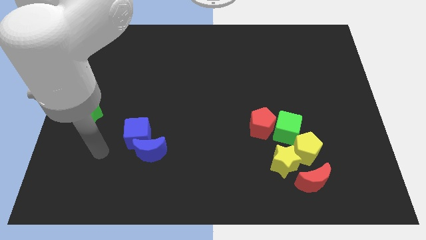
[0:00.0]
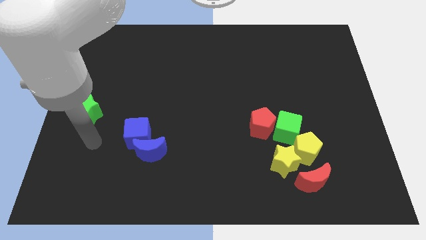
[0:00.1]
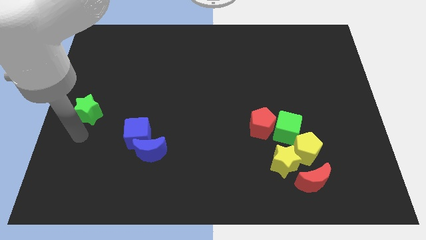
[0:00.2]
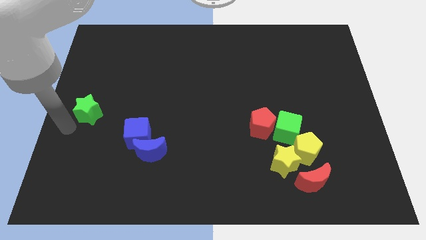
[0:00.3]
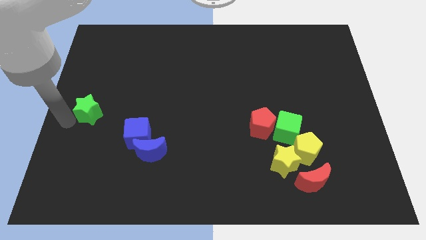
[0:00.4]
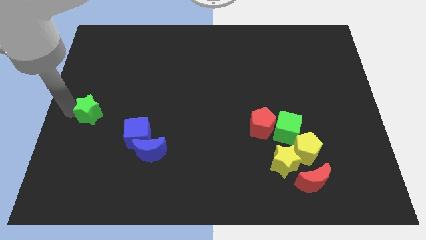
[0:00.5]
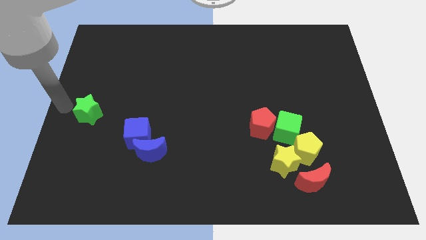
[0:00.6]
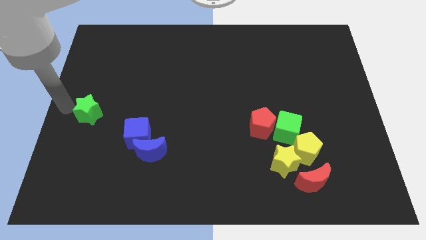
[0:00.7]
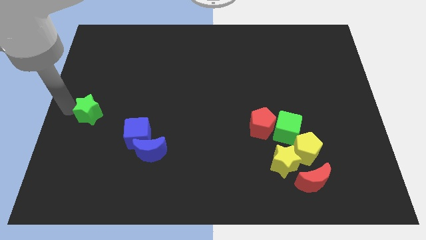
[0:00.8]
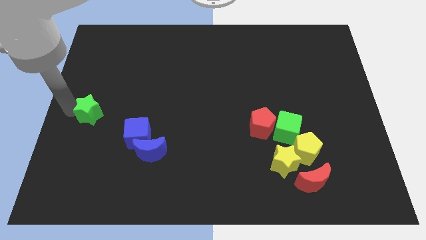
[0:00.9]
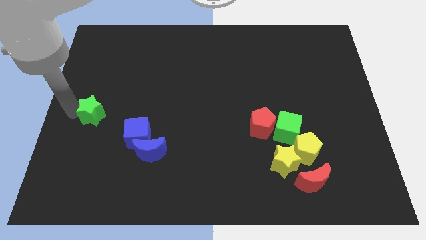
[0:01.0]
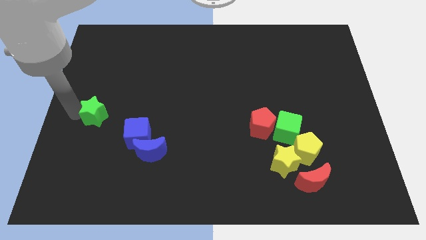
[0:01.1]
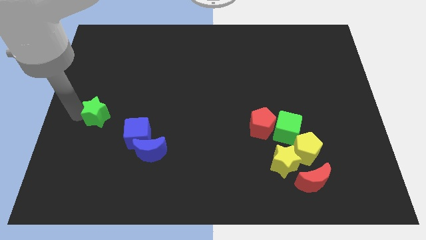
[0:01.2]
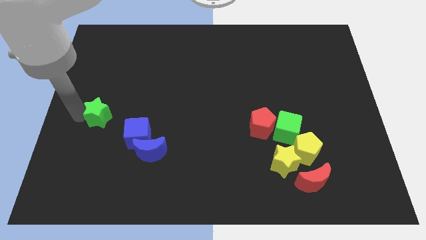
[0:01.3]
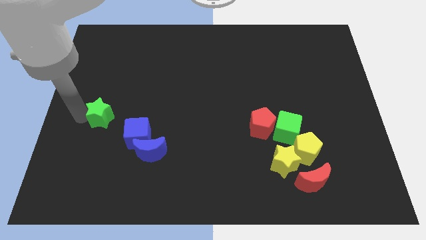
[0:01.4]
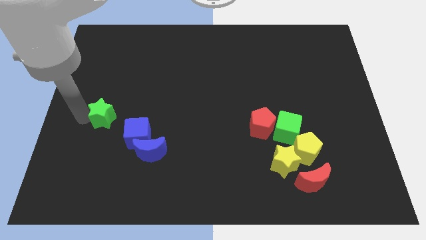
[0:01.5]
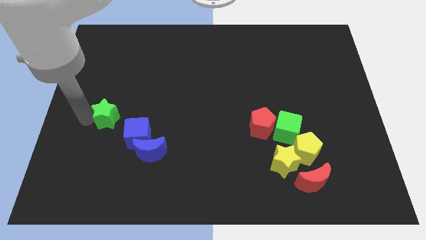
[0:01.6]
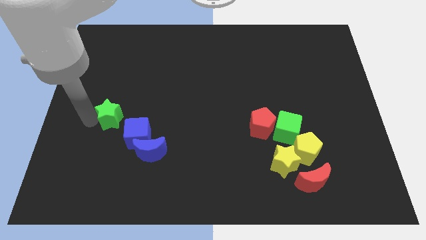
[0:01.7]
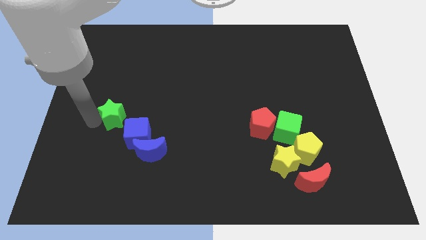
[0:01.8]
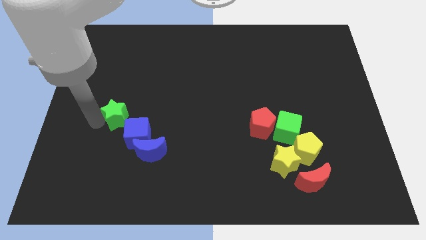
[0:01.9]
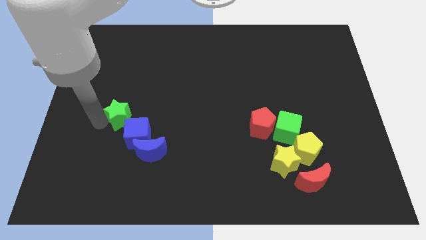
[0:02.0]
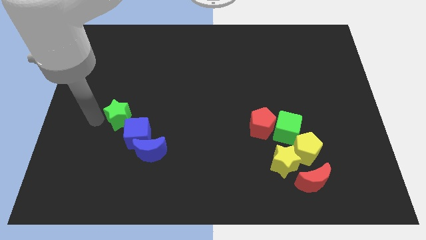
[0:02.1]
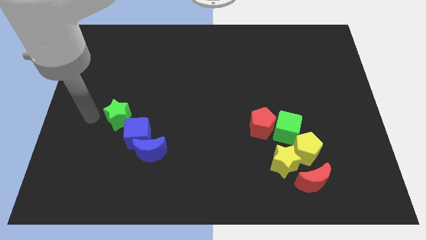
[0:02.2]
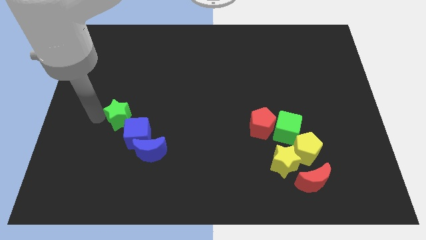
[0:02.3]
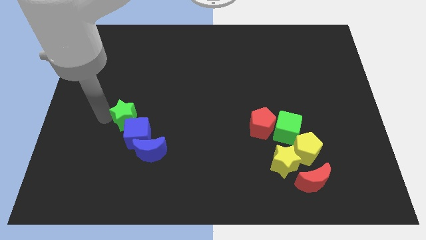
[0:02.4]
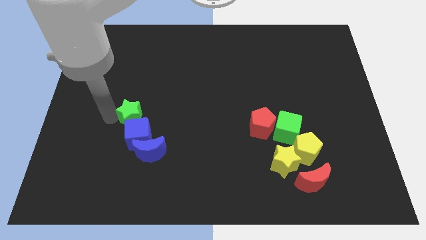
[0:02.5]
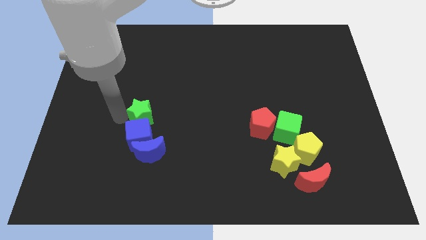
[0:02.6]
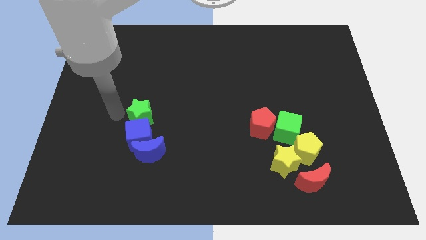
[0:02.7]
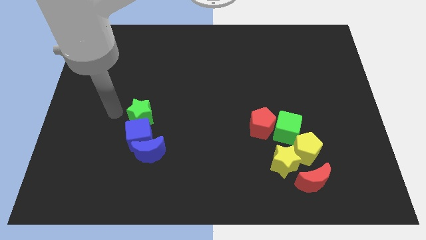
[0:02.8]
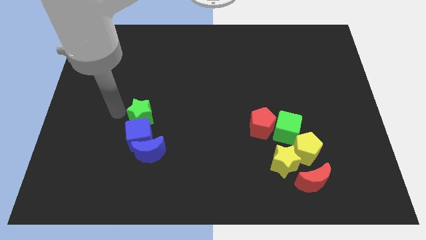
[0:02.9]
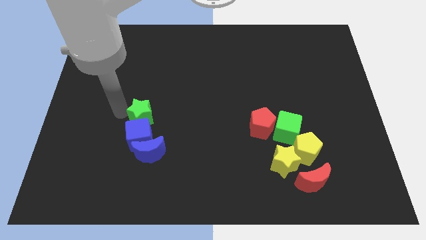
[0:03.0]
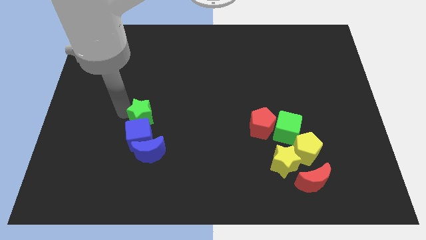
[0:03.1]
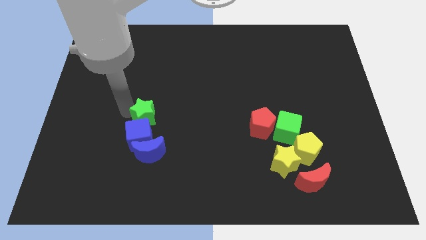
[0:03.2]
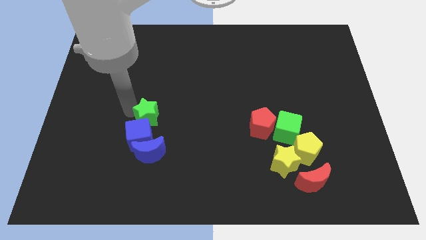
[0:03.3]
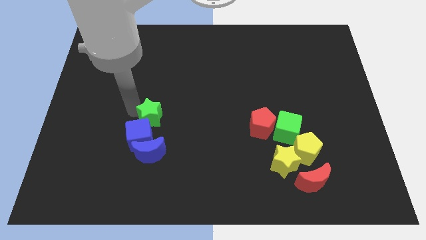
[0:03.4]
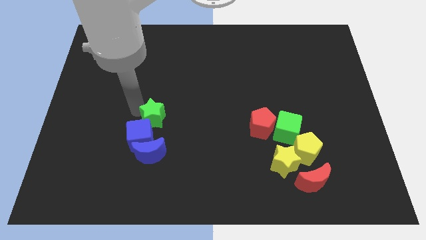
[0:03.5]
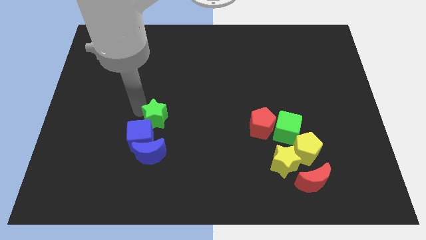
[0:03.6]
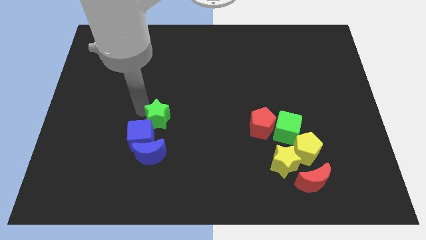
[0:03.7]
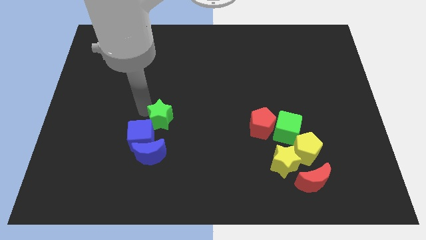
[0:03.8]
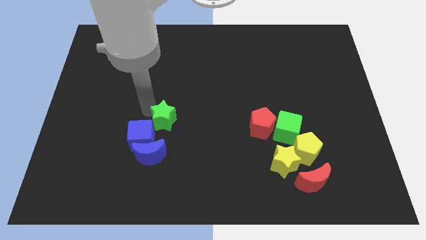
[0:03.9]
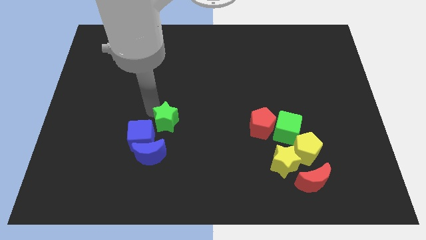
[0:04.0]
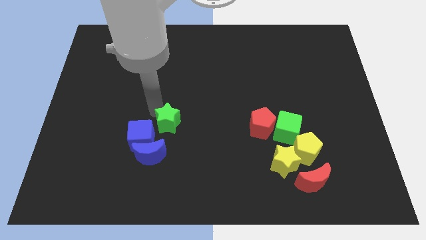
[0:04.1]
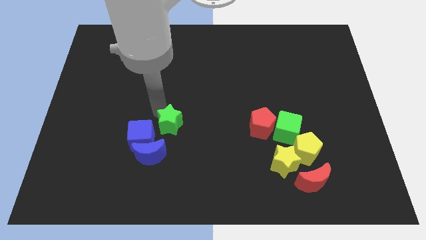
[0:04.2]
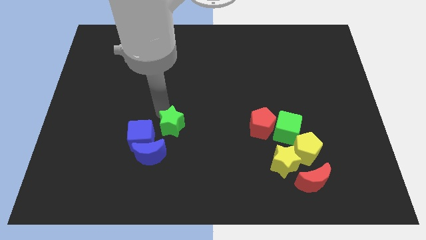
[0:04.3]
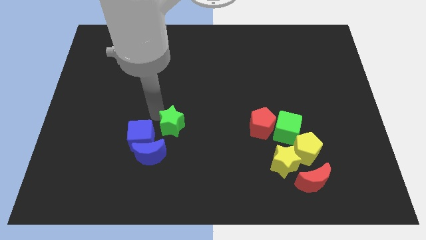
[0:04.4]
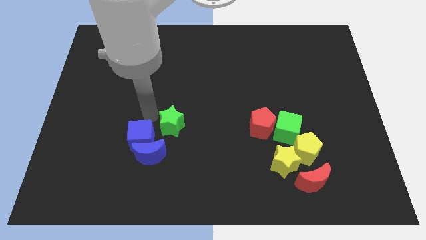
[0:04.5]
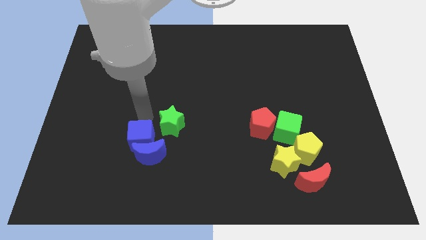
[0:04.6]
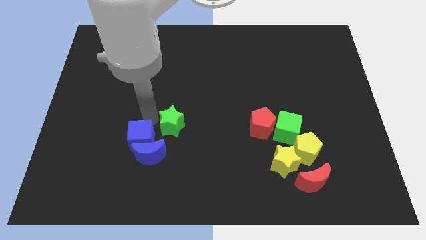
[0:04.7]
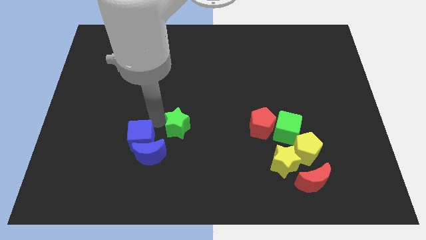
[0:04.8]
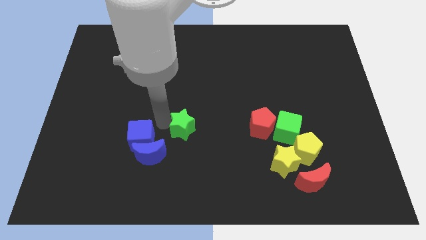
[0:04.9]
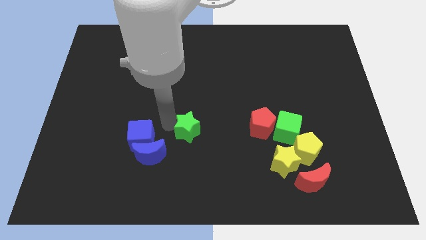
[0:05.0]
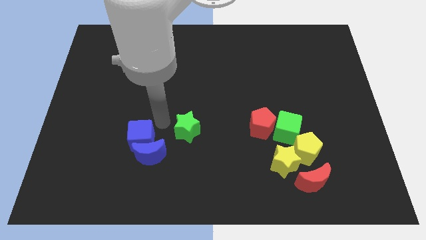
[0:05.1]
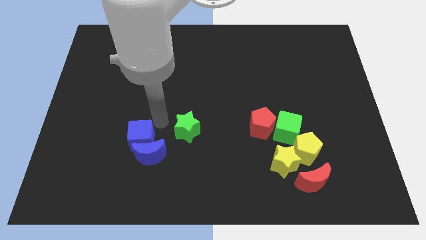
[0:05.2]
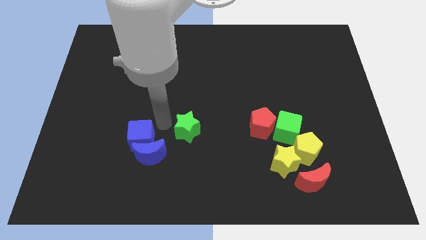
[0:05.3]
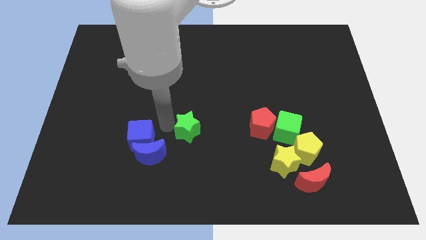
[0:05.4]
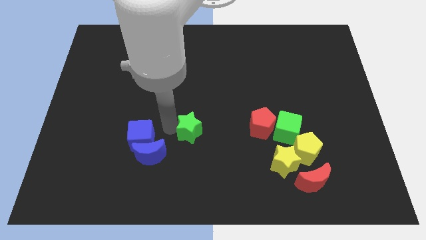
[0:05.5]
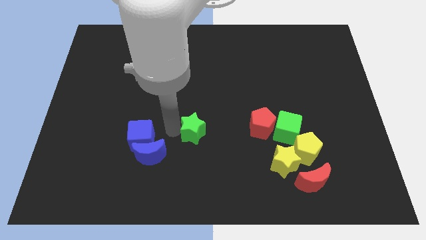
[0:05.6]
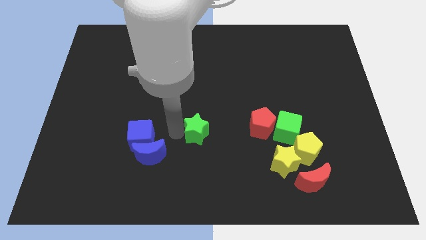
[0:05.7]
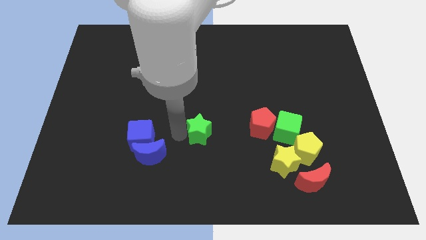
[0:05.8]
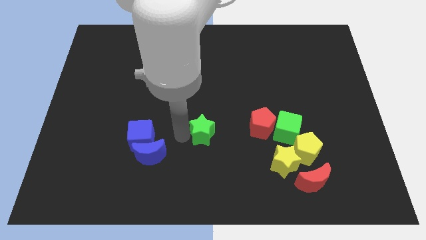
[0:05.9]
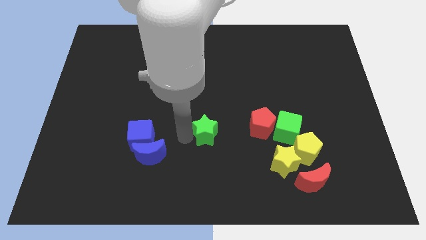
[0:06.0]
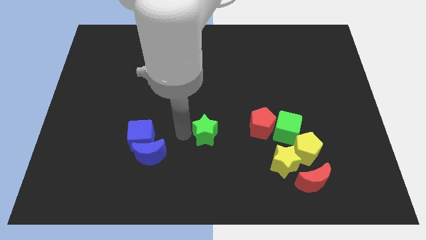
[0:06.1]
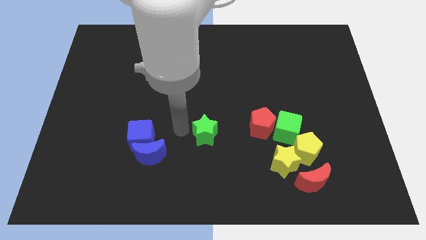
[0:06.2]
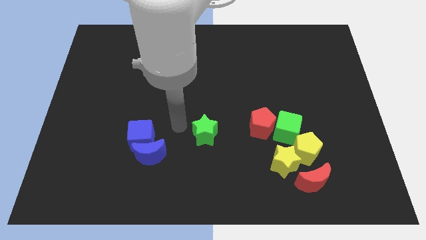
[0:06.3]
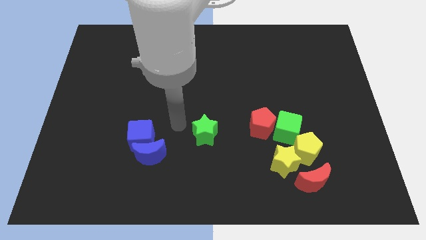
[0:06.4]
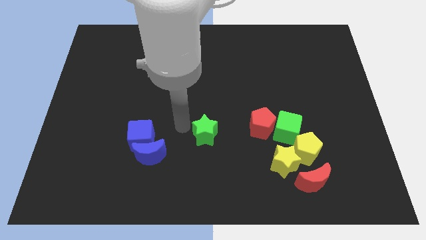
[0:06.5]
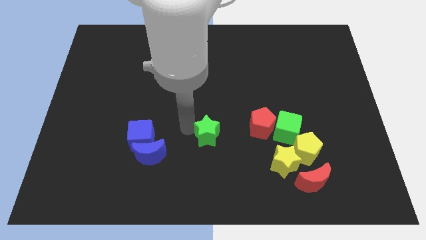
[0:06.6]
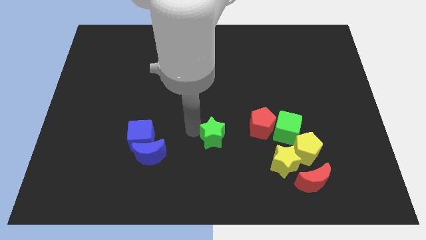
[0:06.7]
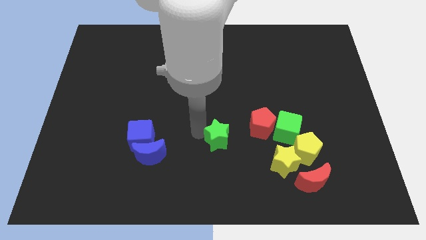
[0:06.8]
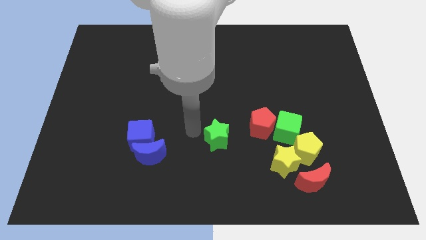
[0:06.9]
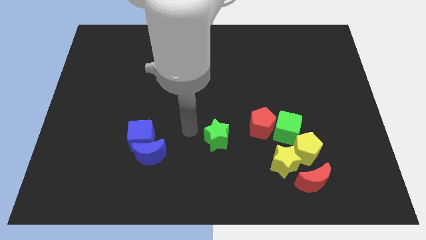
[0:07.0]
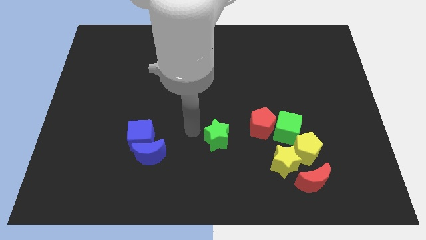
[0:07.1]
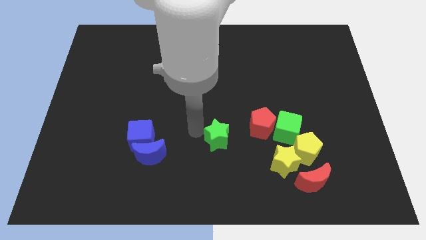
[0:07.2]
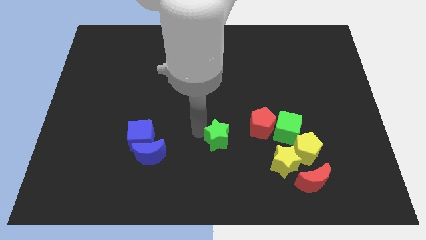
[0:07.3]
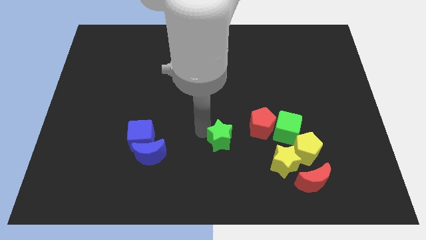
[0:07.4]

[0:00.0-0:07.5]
push the green star to the bottom left of the red pentagon
